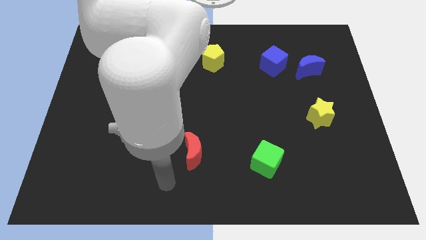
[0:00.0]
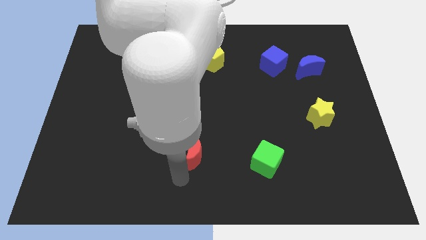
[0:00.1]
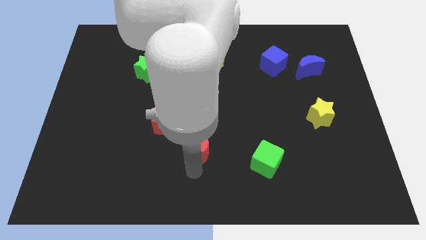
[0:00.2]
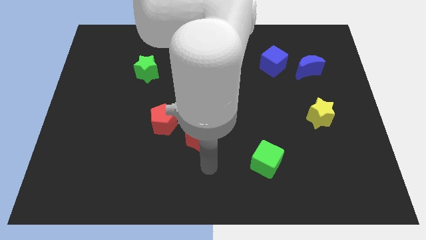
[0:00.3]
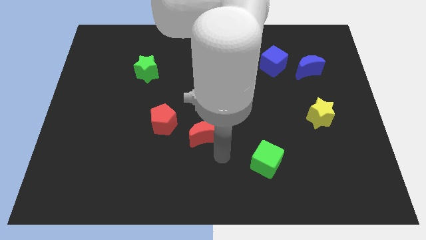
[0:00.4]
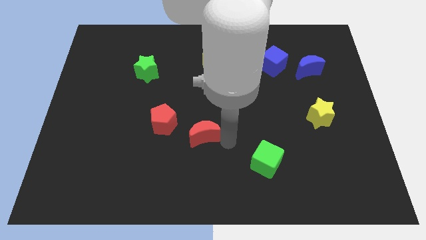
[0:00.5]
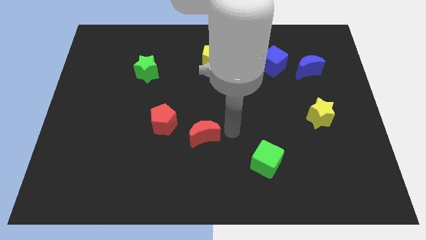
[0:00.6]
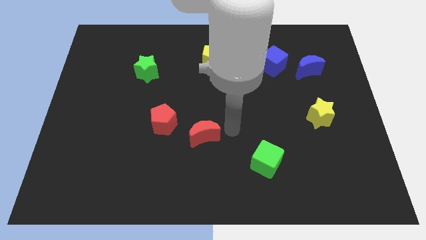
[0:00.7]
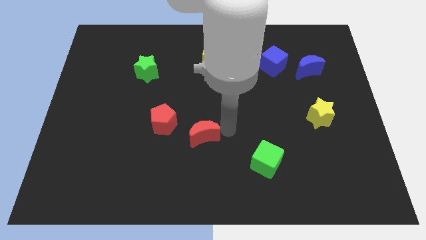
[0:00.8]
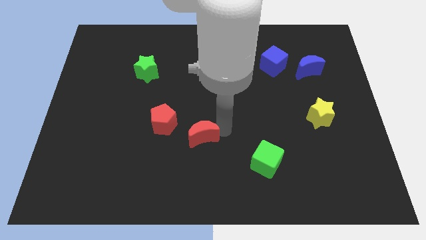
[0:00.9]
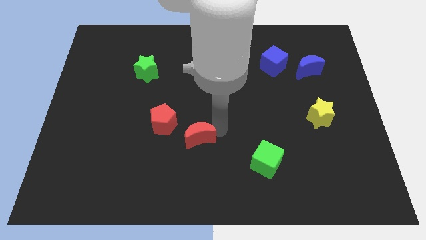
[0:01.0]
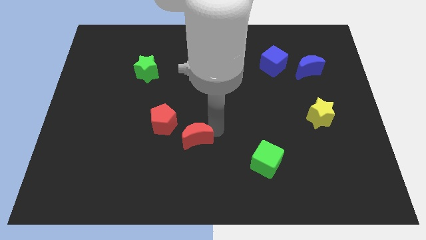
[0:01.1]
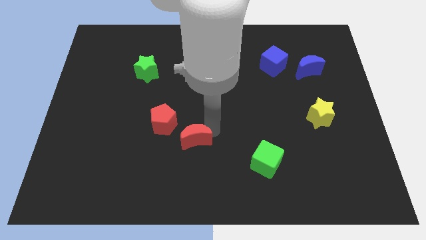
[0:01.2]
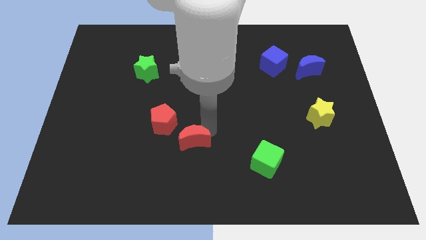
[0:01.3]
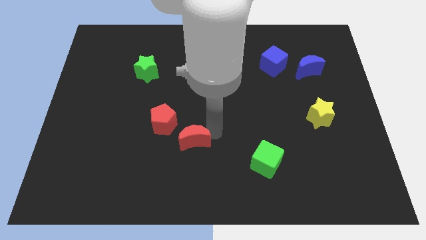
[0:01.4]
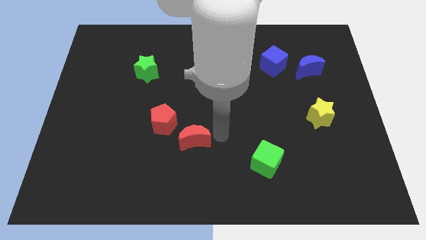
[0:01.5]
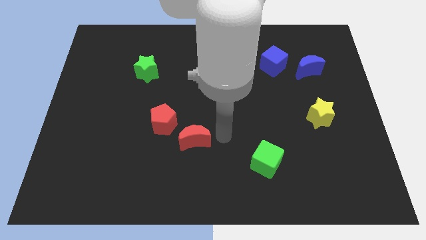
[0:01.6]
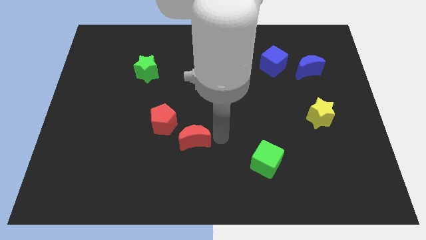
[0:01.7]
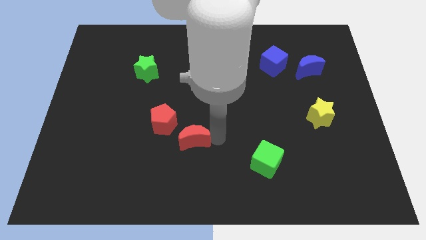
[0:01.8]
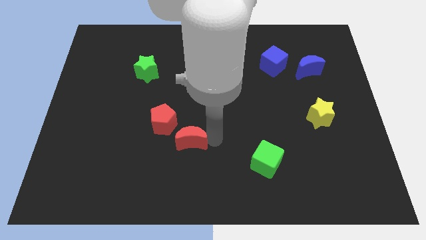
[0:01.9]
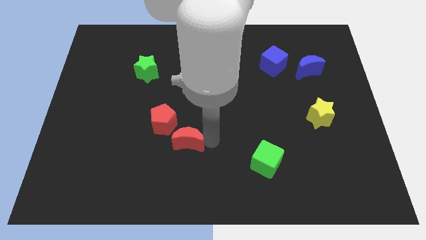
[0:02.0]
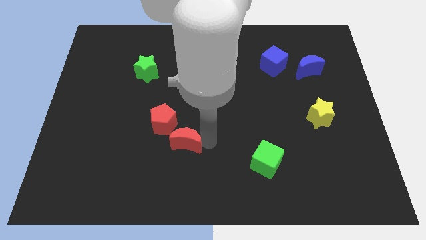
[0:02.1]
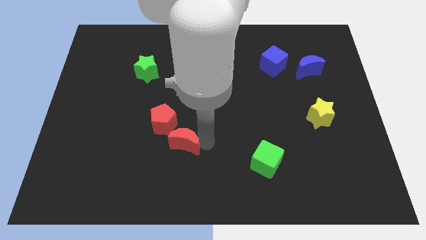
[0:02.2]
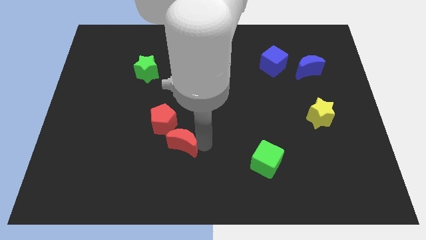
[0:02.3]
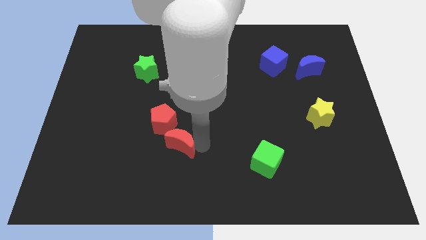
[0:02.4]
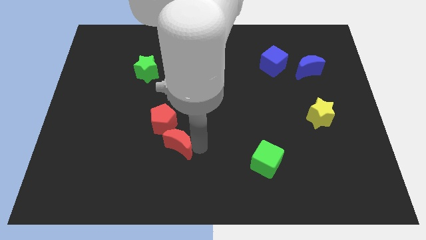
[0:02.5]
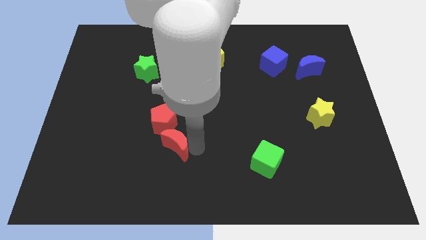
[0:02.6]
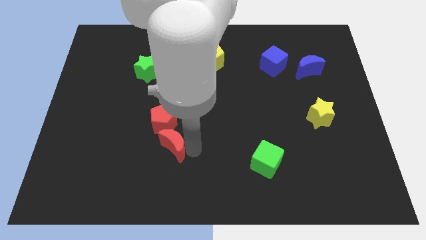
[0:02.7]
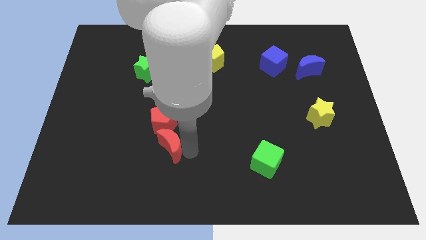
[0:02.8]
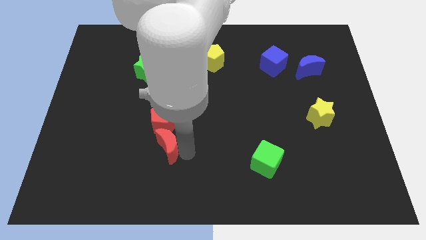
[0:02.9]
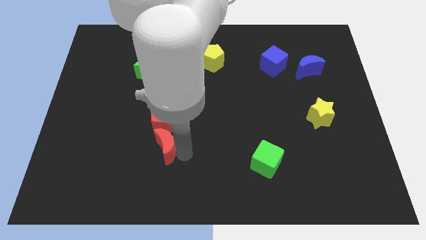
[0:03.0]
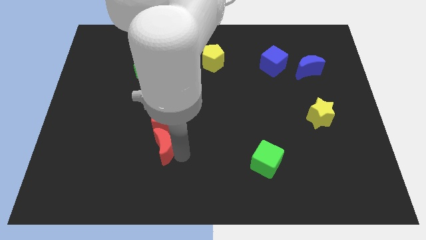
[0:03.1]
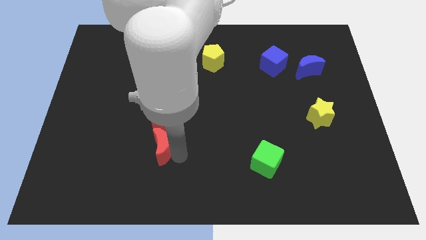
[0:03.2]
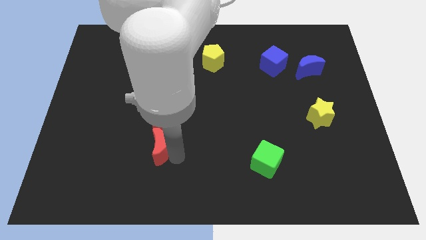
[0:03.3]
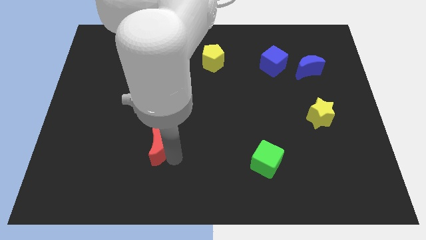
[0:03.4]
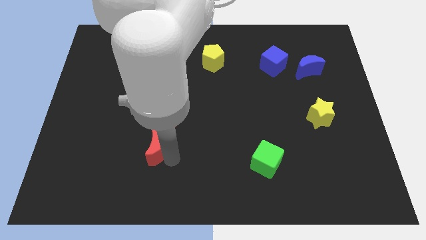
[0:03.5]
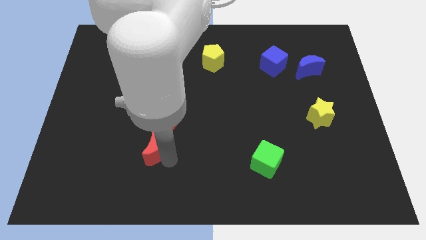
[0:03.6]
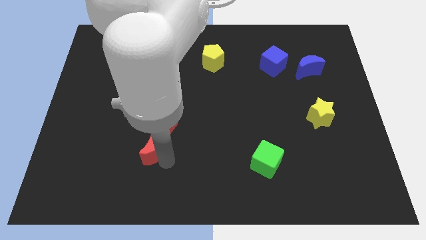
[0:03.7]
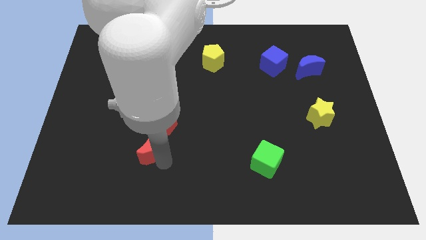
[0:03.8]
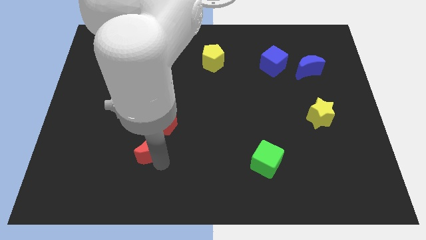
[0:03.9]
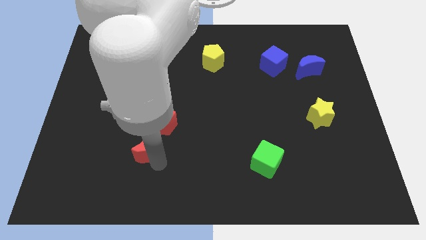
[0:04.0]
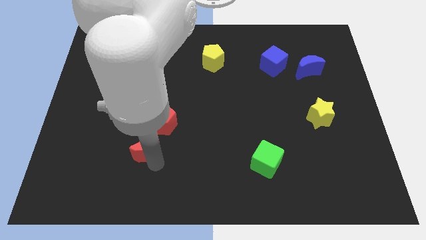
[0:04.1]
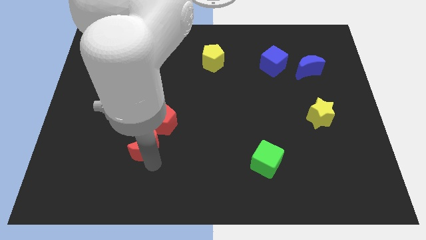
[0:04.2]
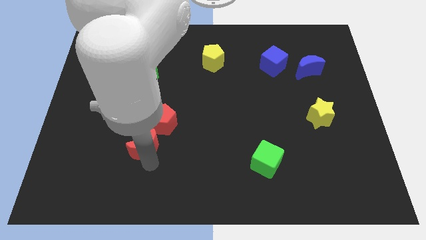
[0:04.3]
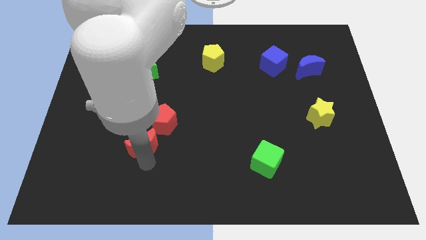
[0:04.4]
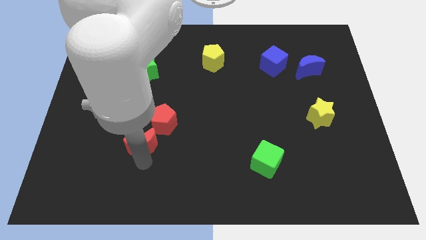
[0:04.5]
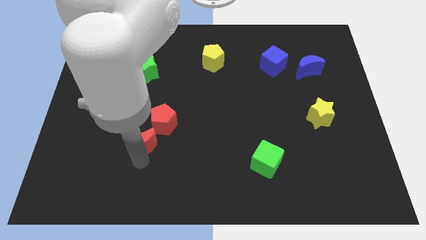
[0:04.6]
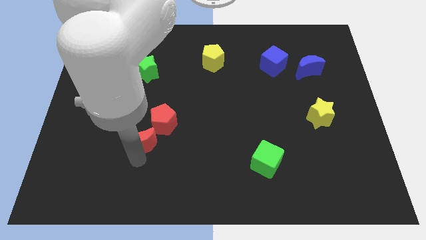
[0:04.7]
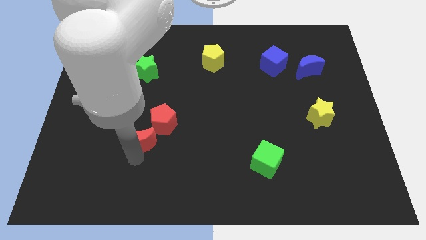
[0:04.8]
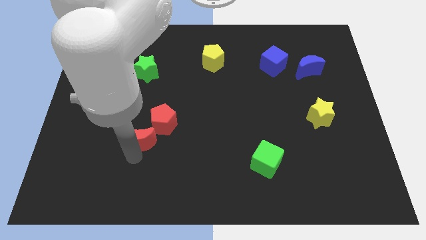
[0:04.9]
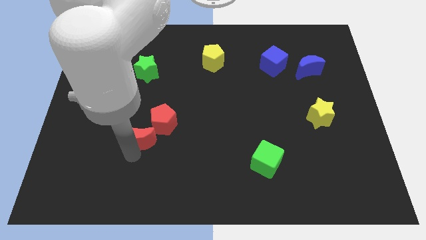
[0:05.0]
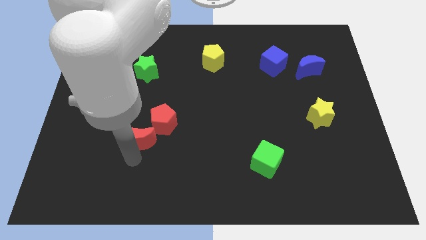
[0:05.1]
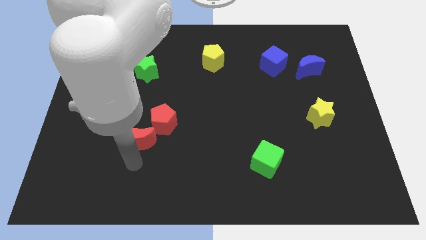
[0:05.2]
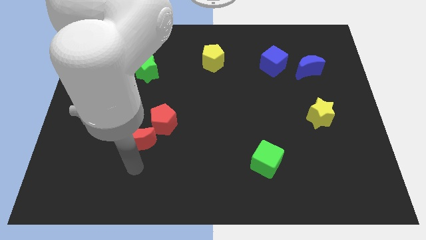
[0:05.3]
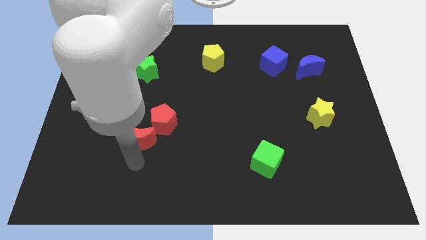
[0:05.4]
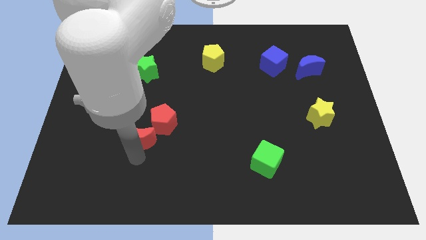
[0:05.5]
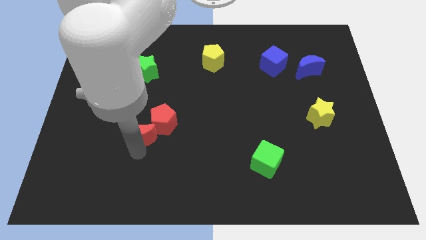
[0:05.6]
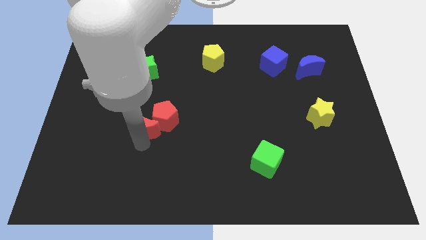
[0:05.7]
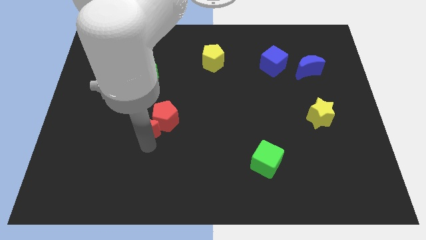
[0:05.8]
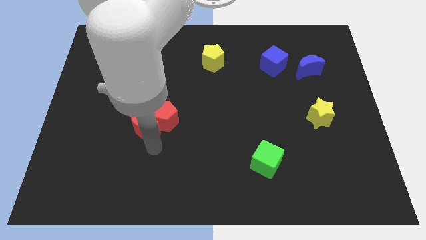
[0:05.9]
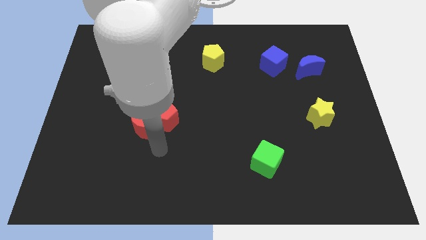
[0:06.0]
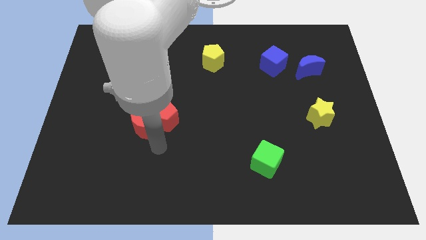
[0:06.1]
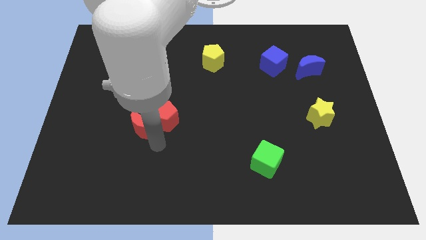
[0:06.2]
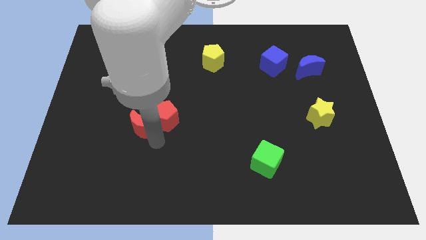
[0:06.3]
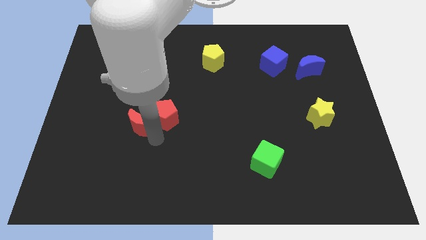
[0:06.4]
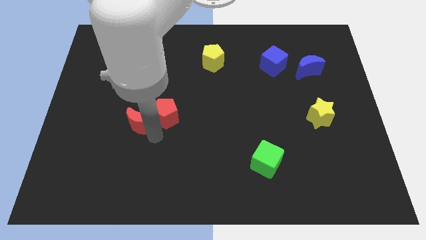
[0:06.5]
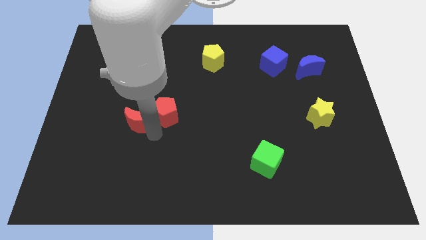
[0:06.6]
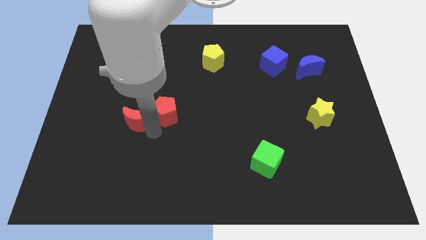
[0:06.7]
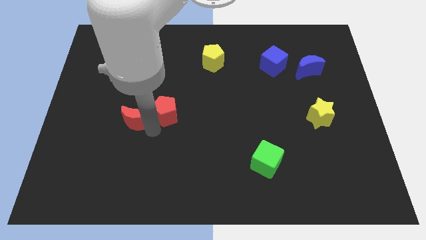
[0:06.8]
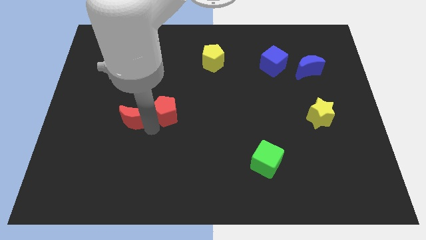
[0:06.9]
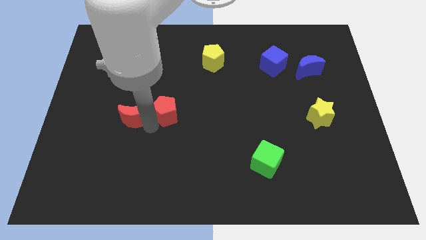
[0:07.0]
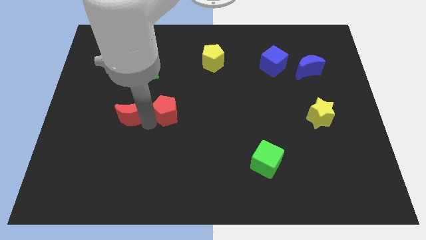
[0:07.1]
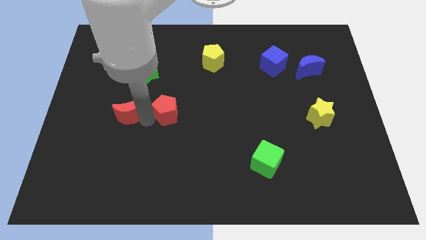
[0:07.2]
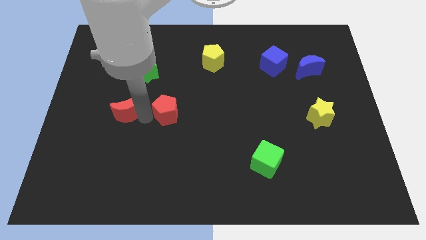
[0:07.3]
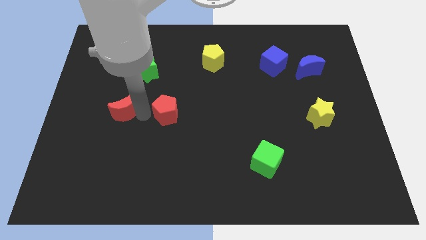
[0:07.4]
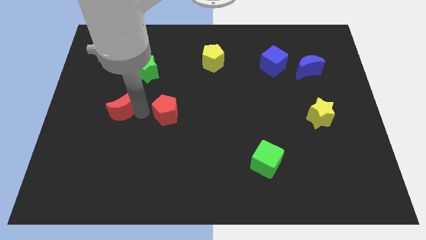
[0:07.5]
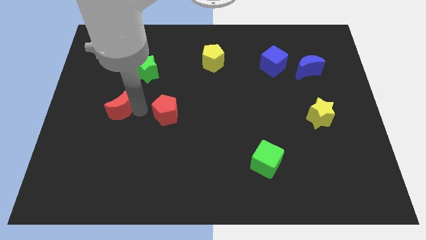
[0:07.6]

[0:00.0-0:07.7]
slide the red moon up and left

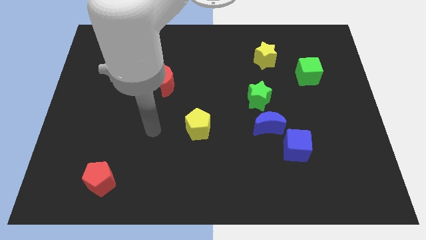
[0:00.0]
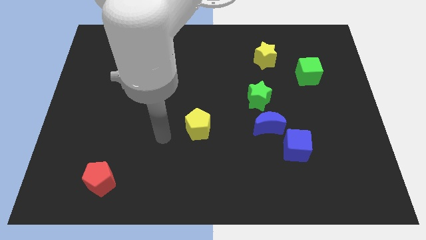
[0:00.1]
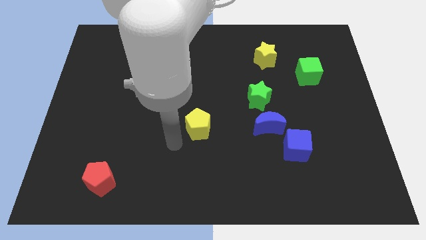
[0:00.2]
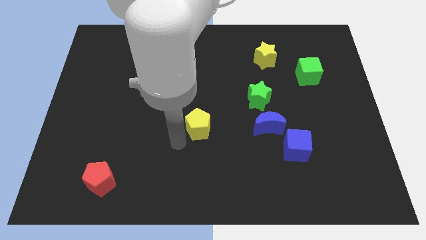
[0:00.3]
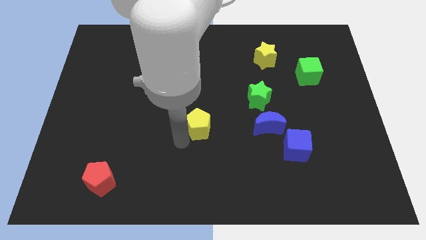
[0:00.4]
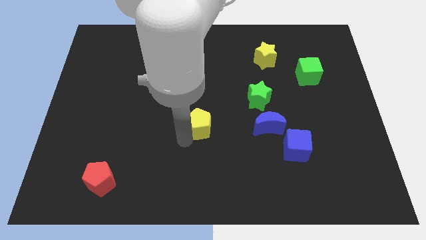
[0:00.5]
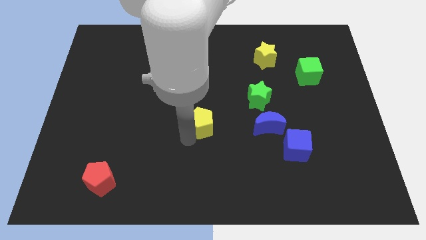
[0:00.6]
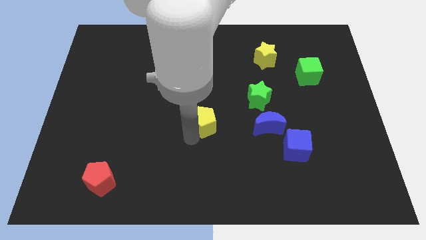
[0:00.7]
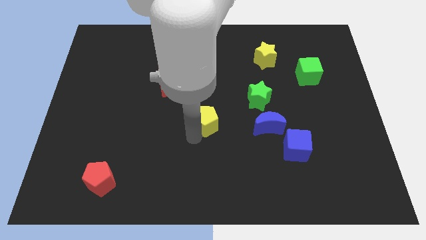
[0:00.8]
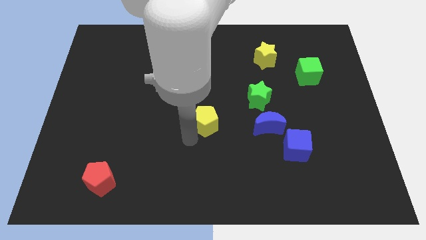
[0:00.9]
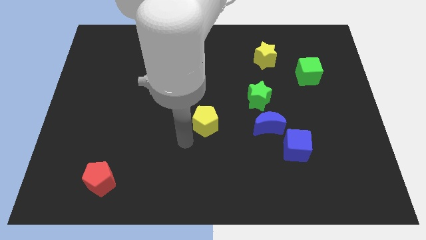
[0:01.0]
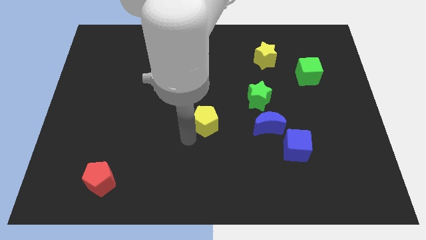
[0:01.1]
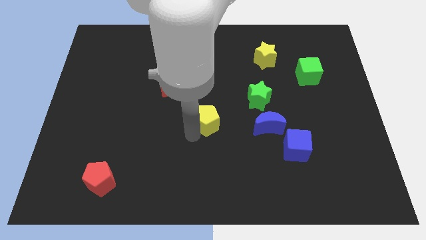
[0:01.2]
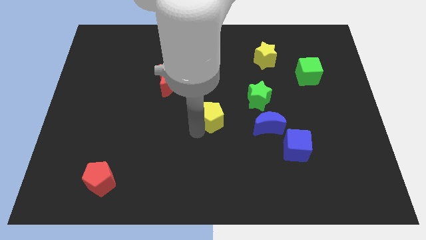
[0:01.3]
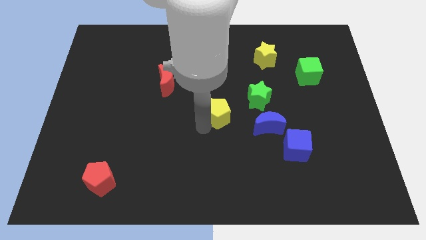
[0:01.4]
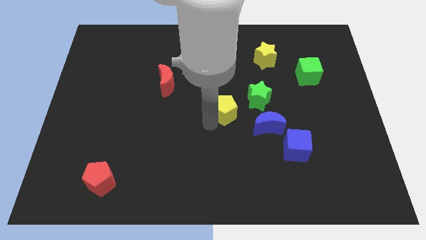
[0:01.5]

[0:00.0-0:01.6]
move the yellow pentagon upwards and right a little bit
